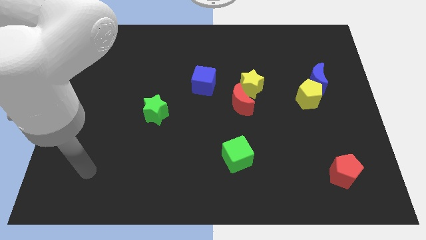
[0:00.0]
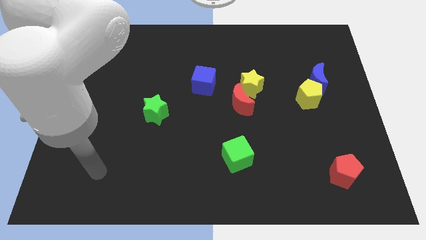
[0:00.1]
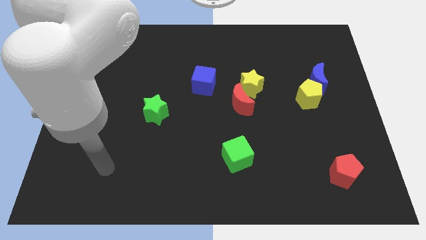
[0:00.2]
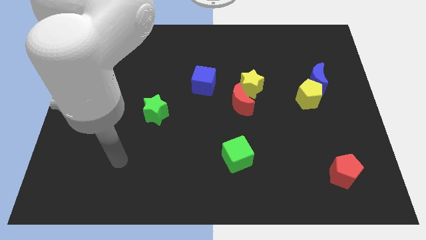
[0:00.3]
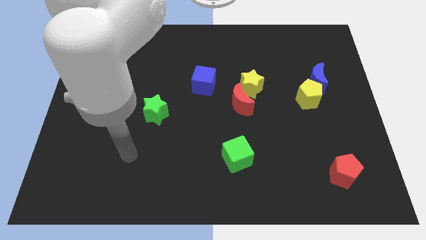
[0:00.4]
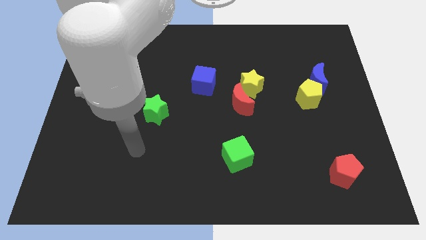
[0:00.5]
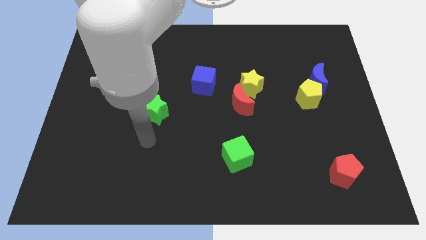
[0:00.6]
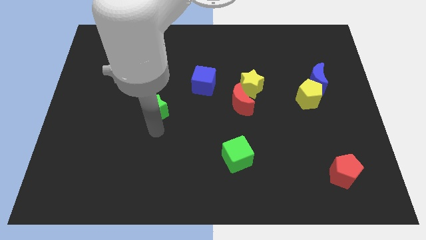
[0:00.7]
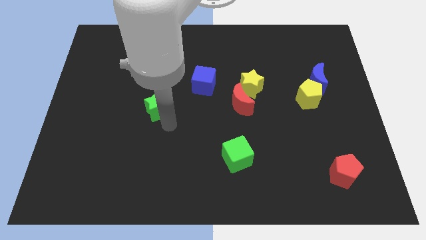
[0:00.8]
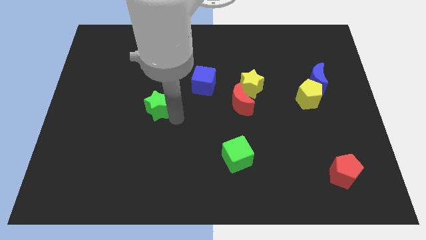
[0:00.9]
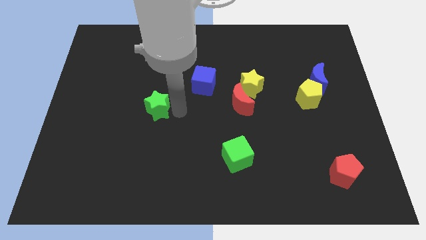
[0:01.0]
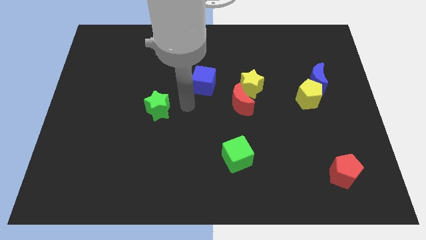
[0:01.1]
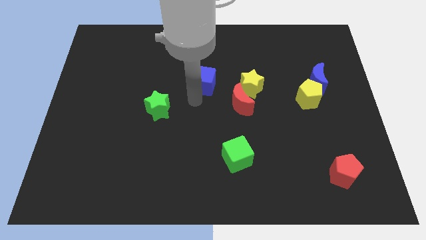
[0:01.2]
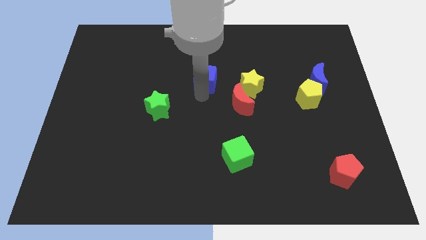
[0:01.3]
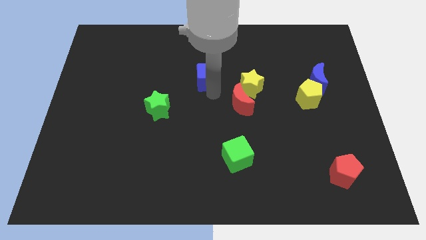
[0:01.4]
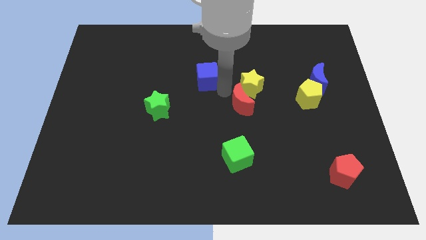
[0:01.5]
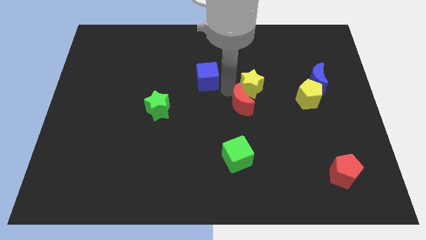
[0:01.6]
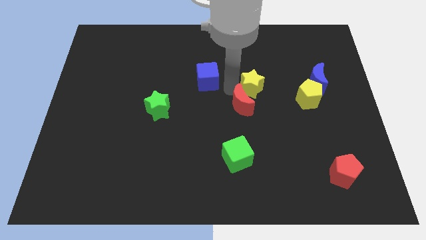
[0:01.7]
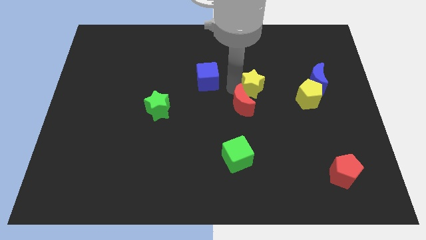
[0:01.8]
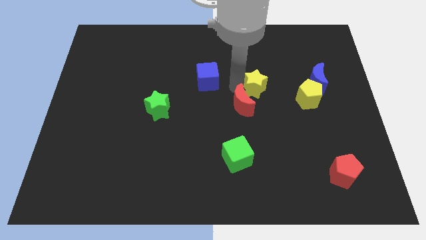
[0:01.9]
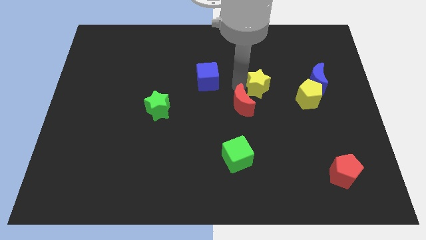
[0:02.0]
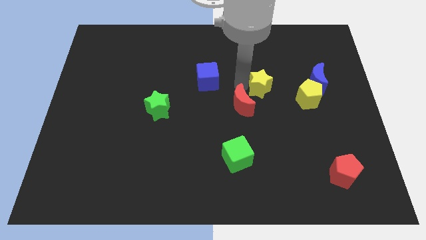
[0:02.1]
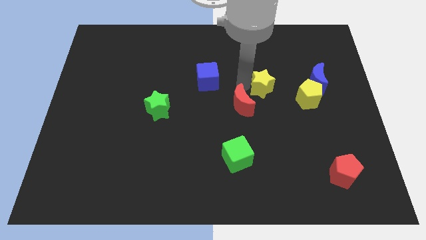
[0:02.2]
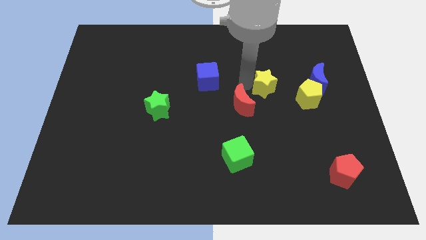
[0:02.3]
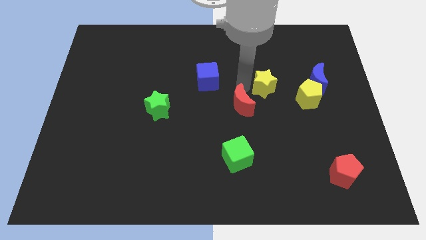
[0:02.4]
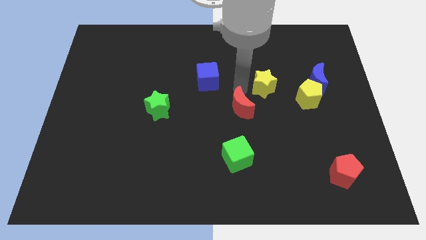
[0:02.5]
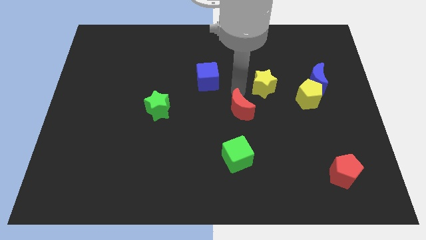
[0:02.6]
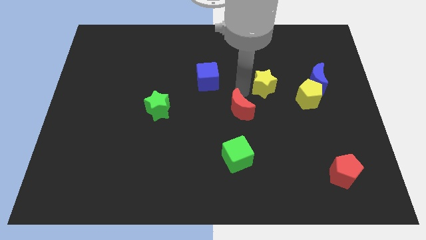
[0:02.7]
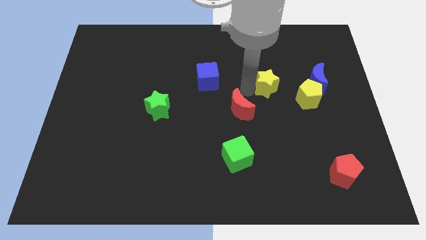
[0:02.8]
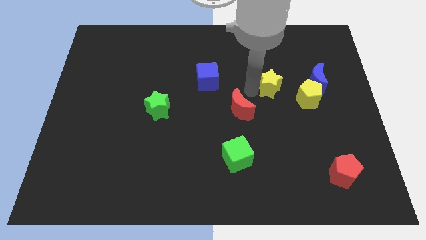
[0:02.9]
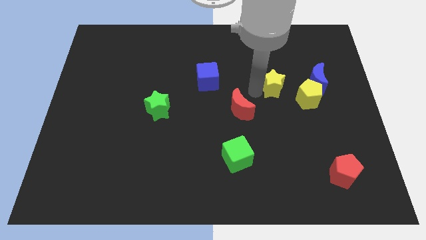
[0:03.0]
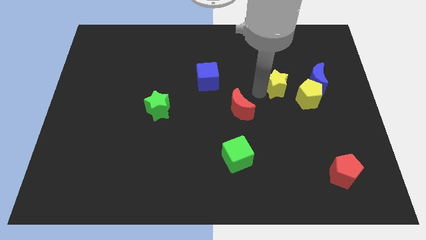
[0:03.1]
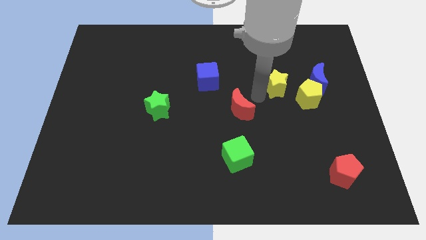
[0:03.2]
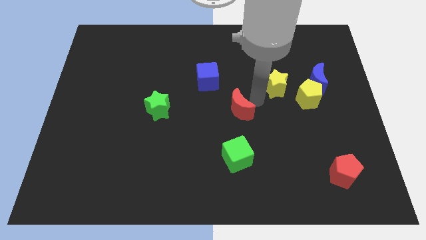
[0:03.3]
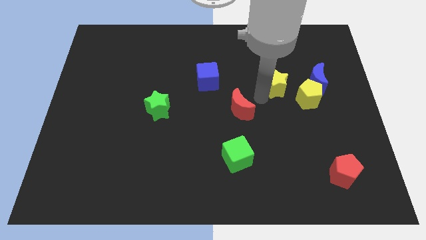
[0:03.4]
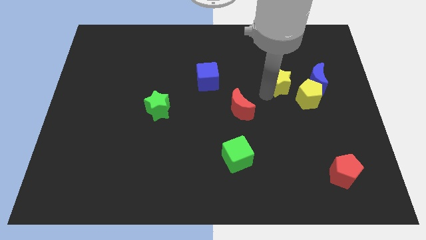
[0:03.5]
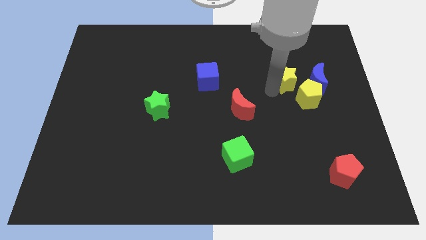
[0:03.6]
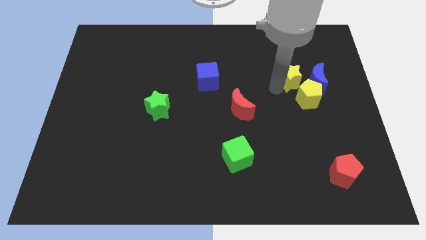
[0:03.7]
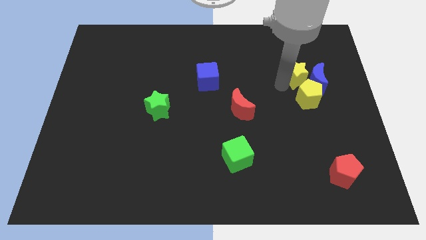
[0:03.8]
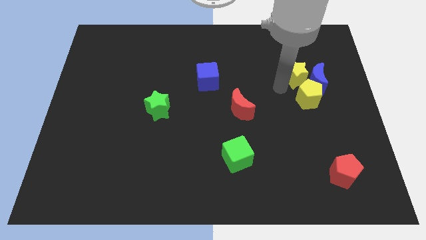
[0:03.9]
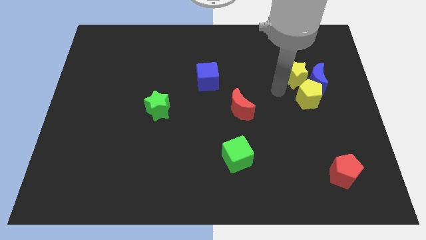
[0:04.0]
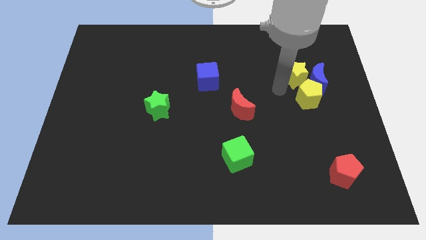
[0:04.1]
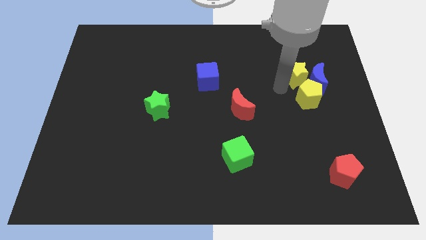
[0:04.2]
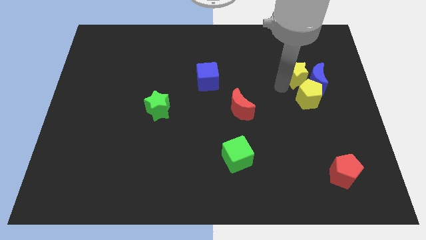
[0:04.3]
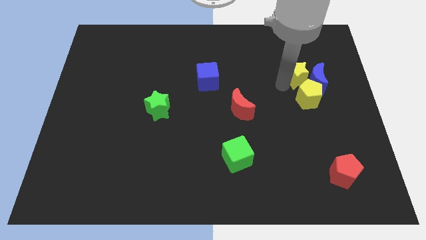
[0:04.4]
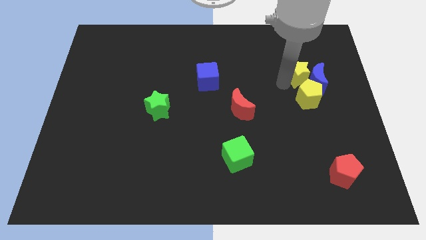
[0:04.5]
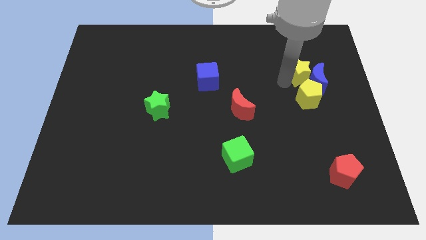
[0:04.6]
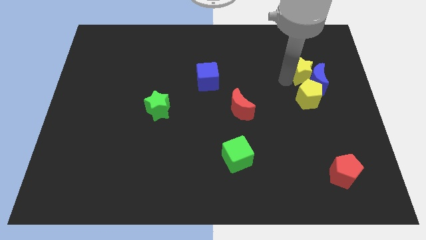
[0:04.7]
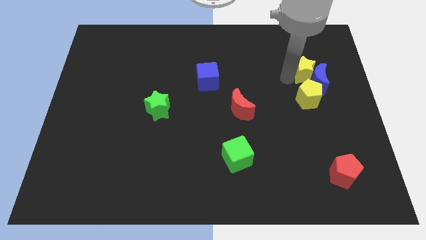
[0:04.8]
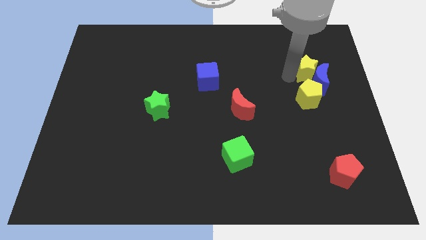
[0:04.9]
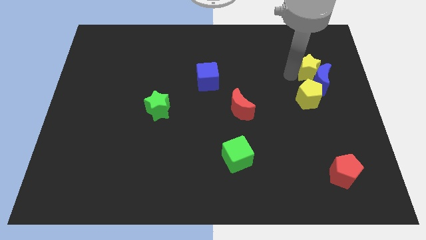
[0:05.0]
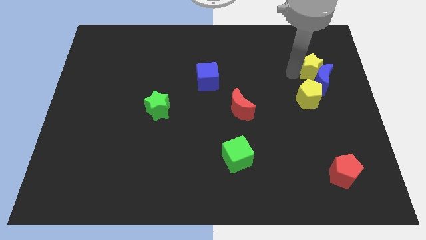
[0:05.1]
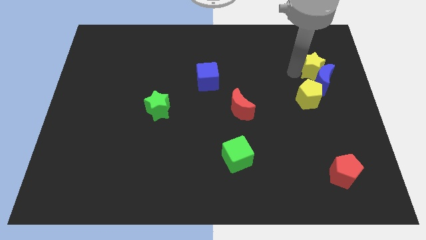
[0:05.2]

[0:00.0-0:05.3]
slide the yellow star to the top right side of the yellow pentagon

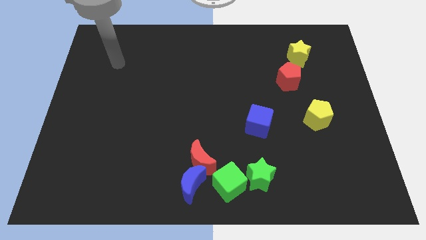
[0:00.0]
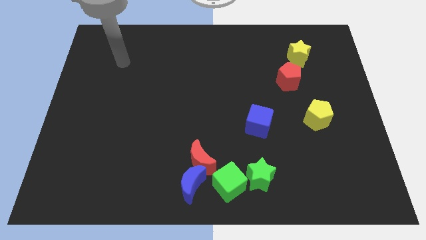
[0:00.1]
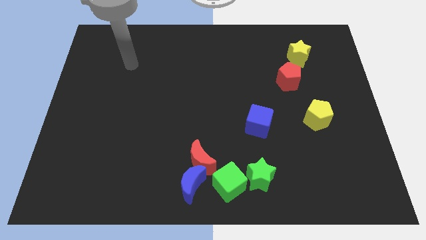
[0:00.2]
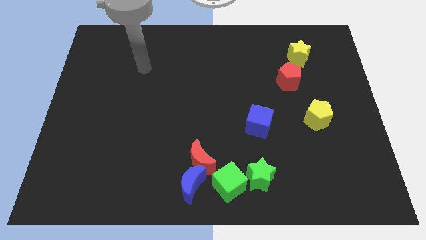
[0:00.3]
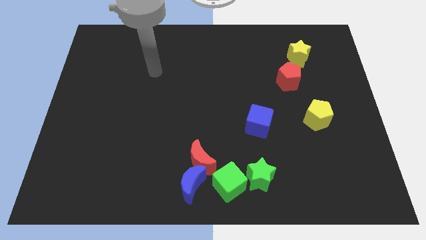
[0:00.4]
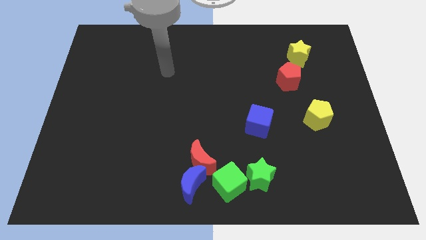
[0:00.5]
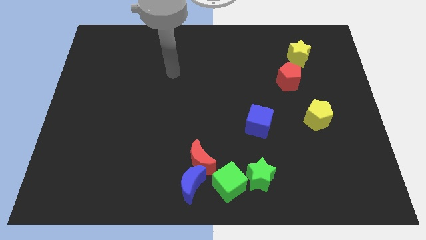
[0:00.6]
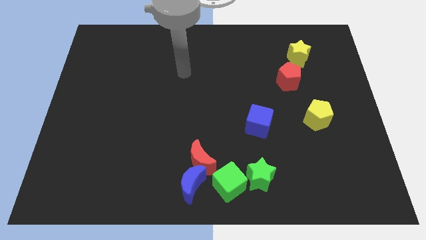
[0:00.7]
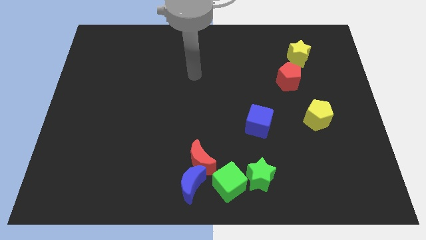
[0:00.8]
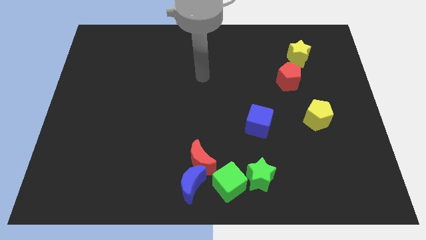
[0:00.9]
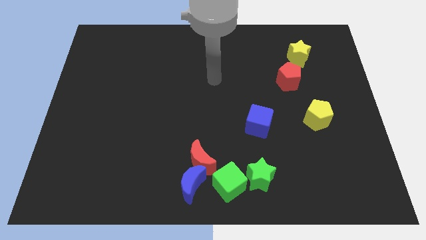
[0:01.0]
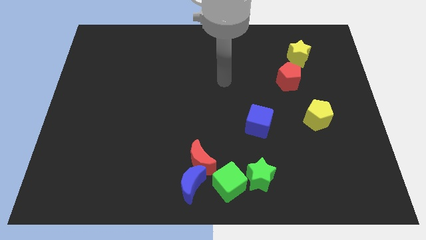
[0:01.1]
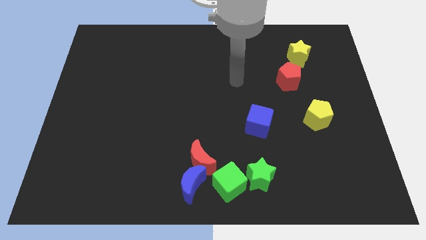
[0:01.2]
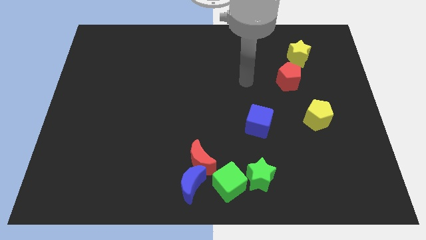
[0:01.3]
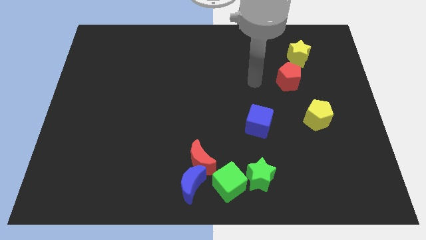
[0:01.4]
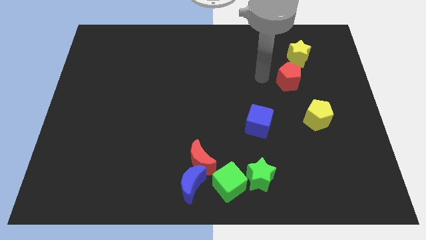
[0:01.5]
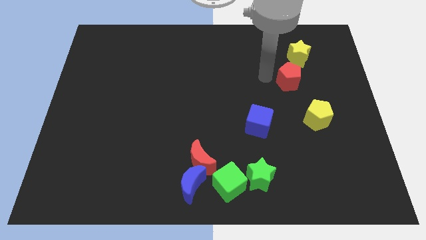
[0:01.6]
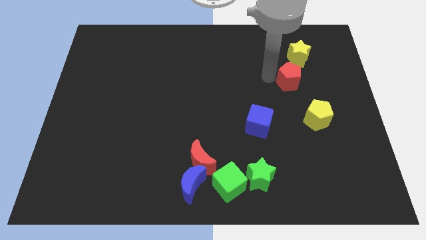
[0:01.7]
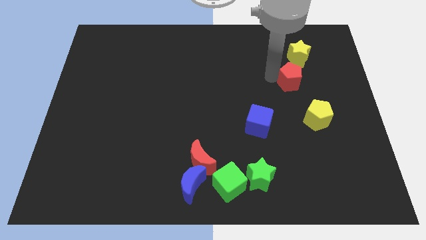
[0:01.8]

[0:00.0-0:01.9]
move the red pentagon to the top side of the yellow pentagon
